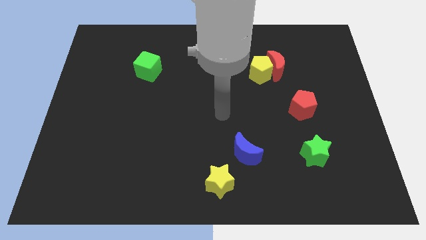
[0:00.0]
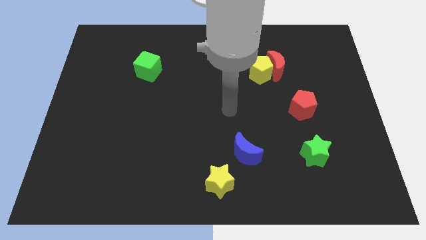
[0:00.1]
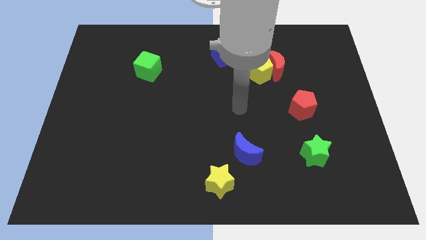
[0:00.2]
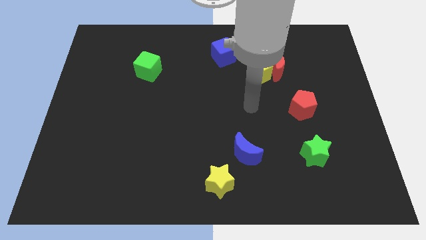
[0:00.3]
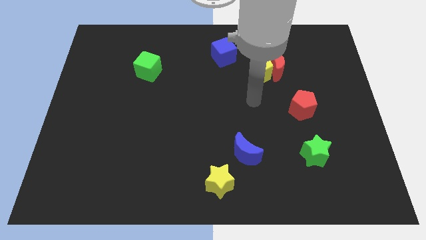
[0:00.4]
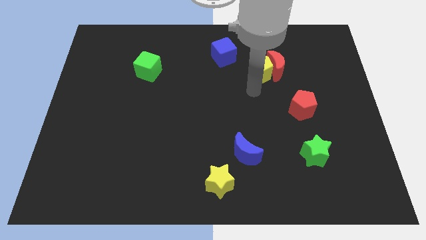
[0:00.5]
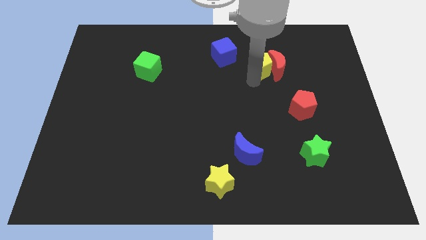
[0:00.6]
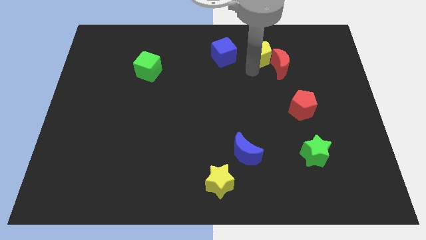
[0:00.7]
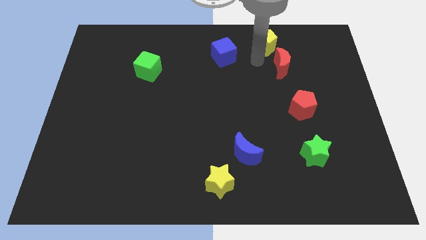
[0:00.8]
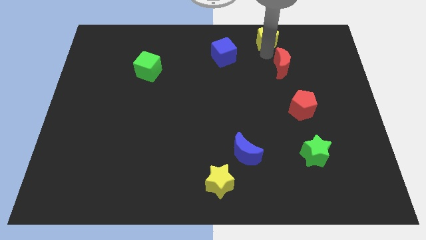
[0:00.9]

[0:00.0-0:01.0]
move the red moon away from the yellow pentagon

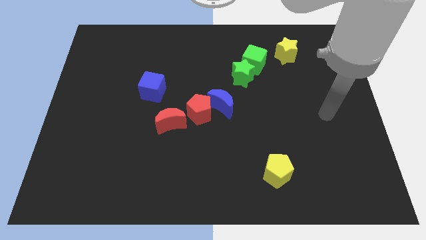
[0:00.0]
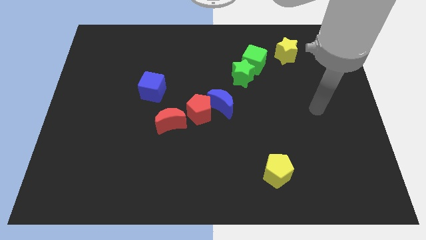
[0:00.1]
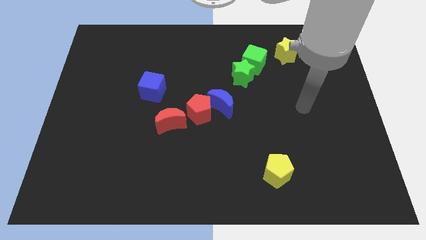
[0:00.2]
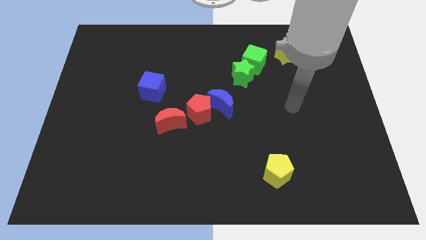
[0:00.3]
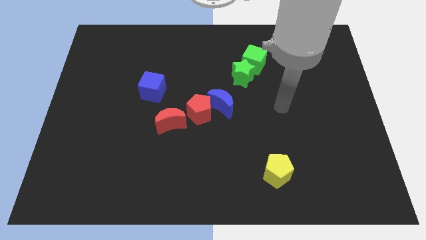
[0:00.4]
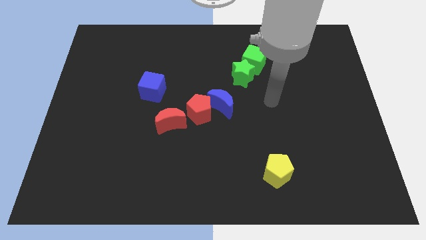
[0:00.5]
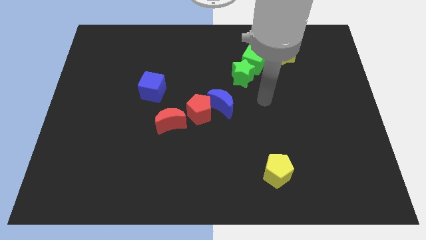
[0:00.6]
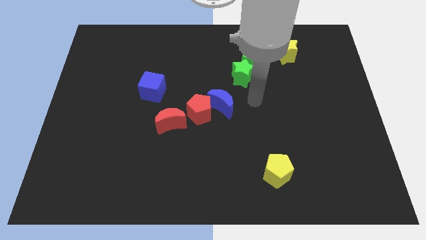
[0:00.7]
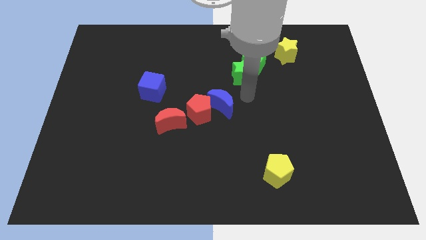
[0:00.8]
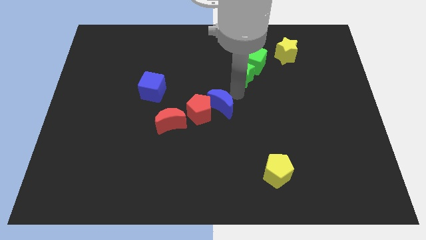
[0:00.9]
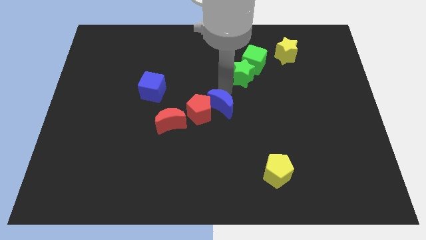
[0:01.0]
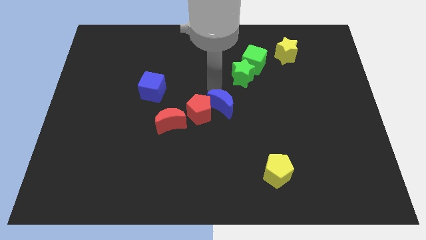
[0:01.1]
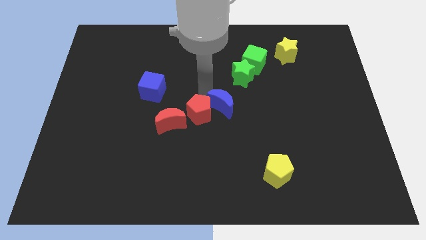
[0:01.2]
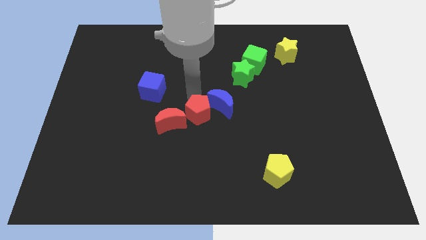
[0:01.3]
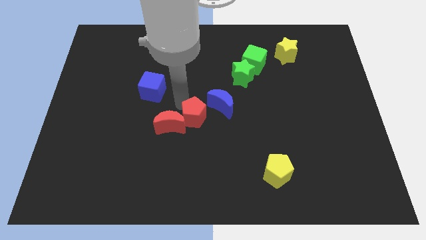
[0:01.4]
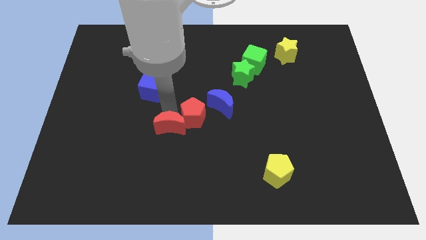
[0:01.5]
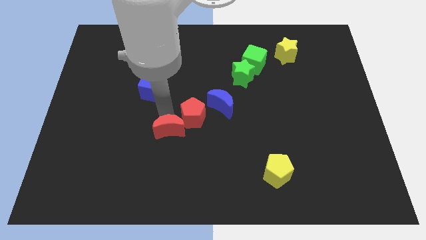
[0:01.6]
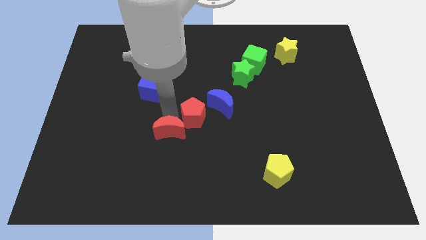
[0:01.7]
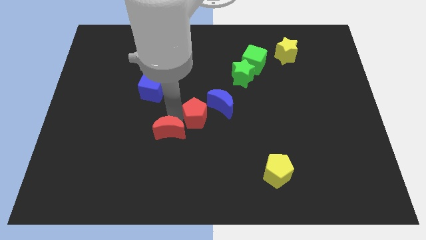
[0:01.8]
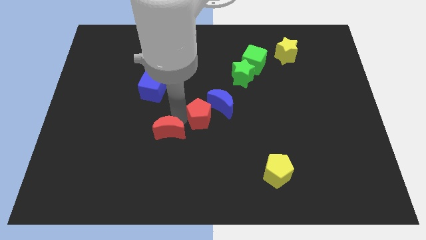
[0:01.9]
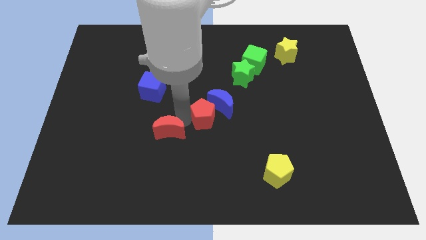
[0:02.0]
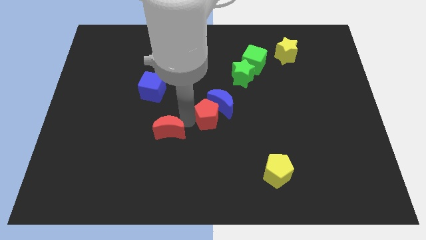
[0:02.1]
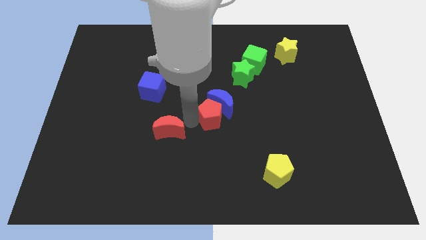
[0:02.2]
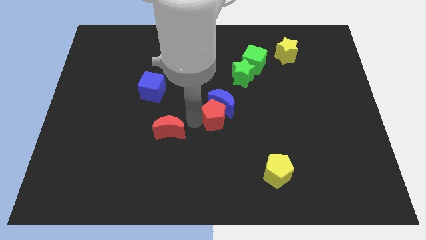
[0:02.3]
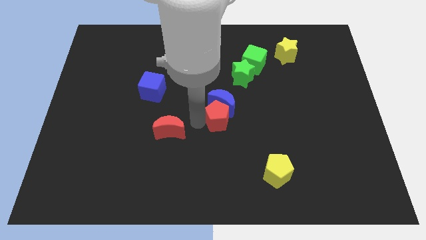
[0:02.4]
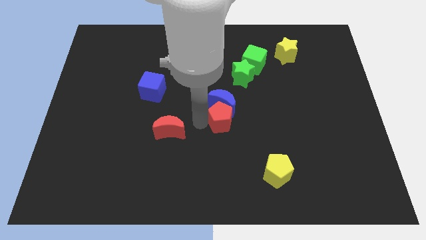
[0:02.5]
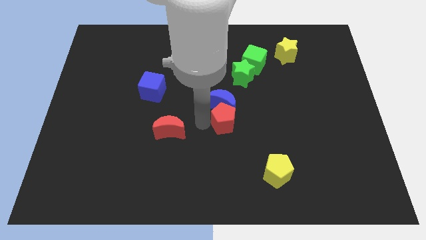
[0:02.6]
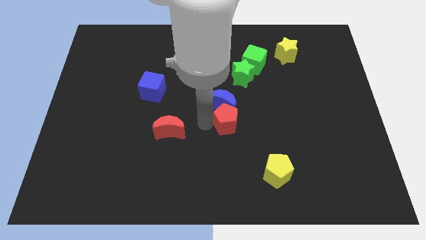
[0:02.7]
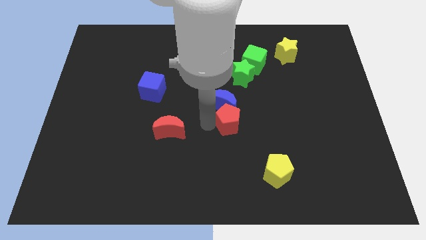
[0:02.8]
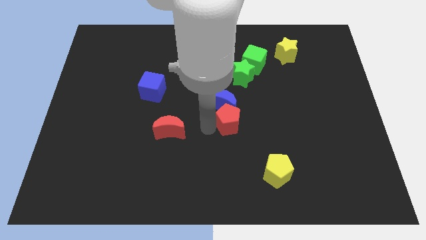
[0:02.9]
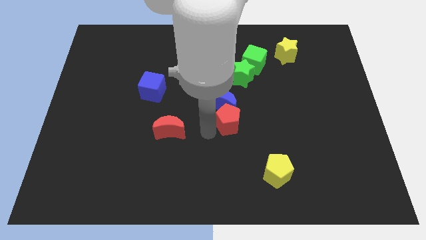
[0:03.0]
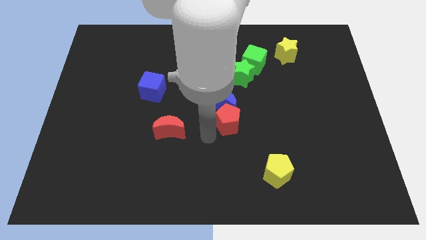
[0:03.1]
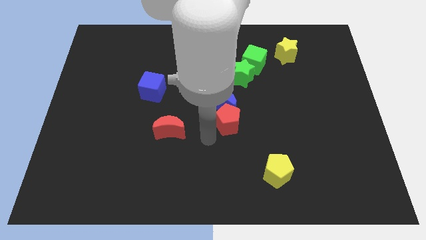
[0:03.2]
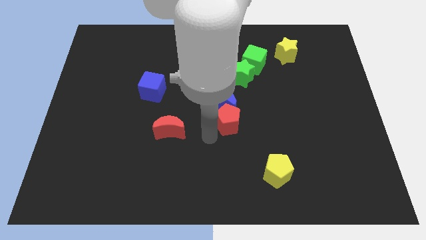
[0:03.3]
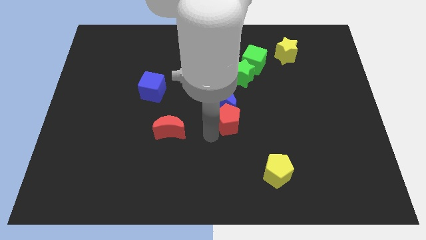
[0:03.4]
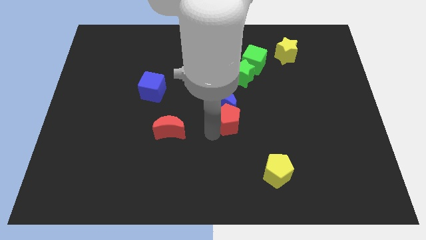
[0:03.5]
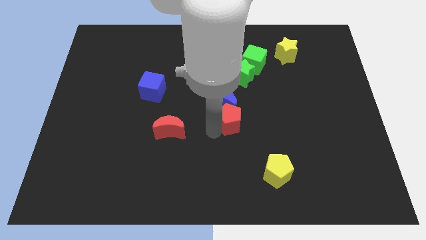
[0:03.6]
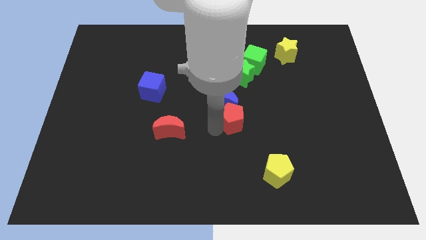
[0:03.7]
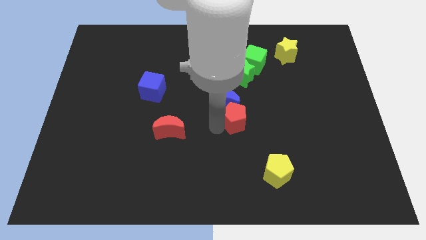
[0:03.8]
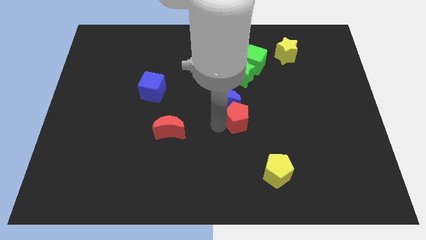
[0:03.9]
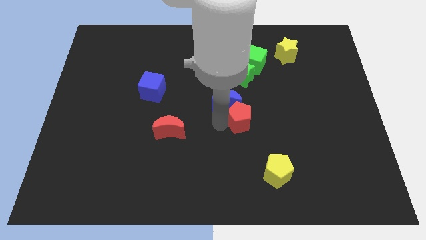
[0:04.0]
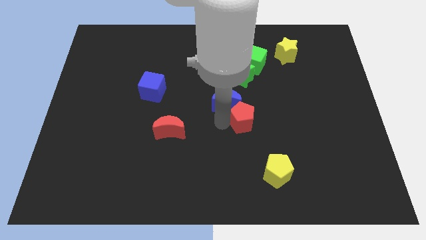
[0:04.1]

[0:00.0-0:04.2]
move the red pentagon away from the blue moon and red moon

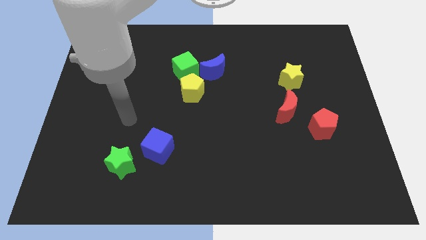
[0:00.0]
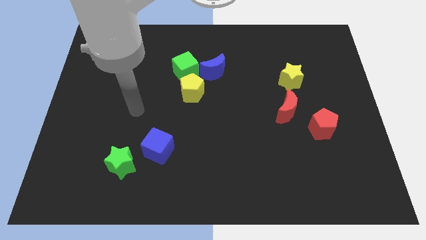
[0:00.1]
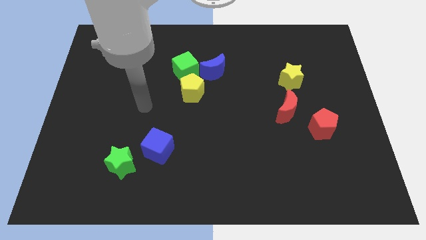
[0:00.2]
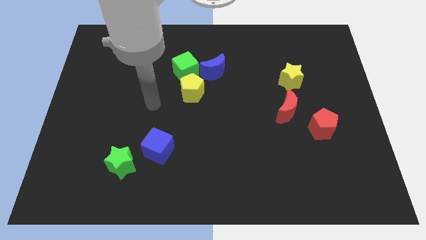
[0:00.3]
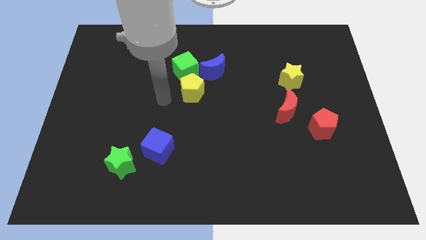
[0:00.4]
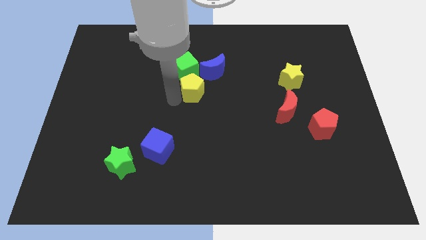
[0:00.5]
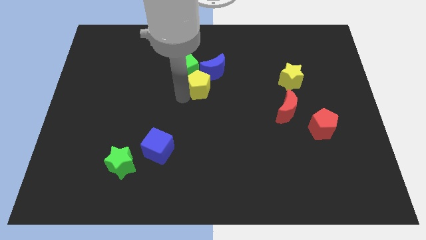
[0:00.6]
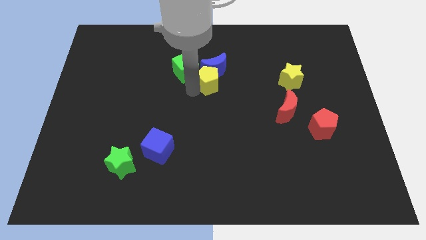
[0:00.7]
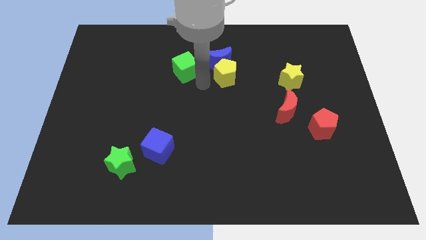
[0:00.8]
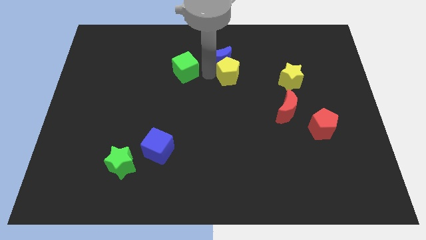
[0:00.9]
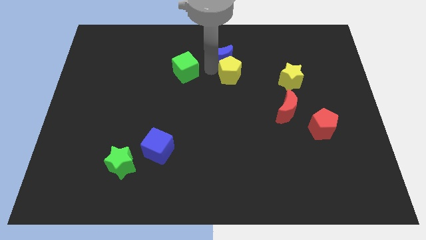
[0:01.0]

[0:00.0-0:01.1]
pull the green cube apart from the yellow pentagon and blue moon

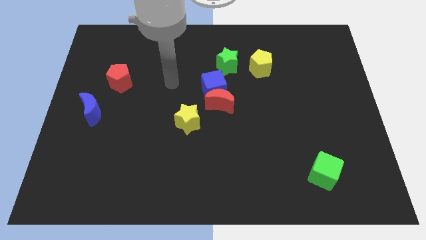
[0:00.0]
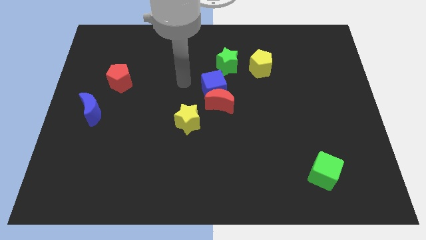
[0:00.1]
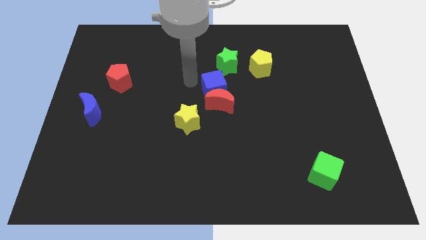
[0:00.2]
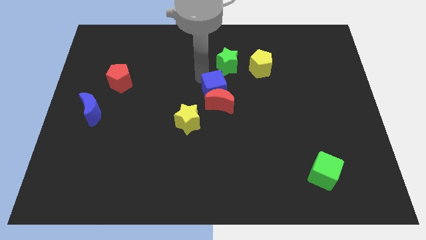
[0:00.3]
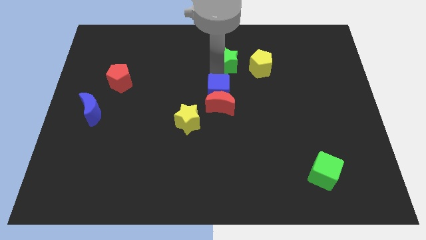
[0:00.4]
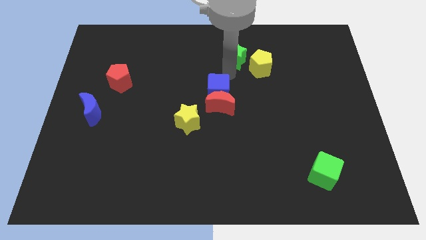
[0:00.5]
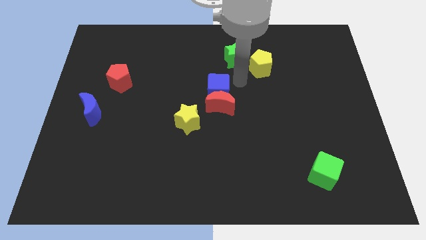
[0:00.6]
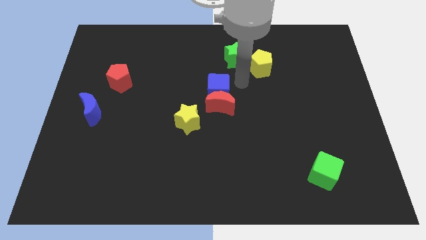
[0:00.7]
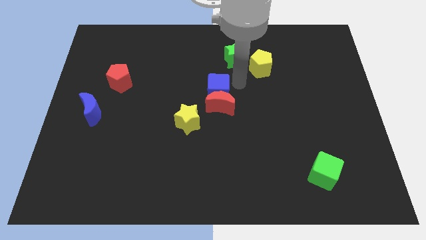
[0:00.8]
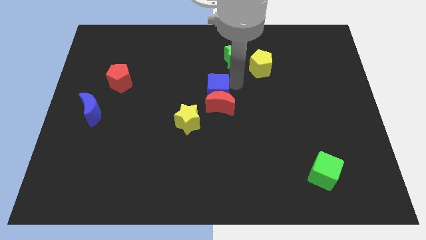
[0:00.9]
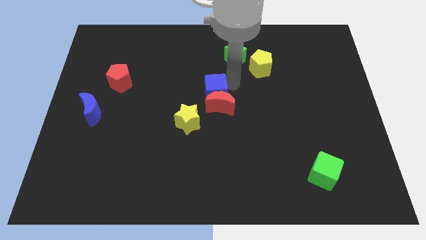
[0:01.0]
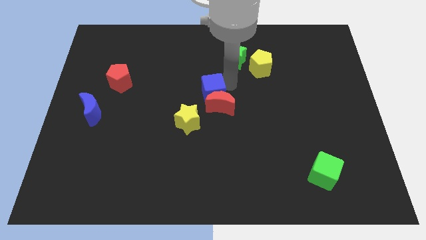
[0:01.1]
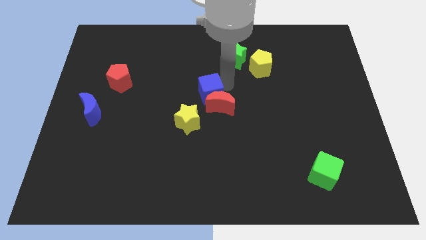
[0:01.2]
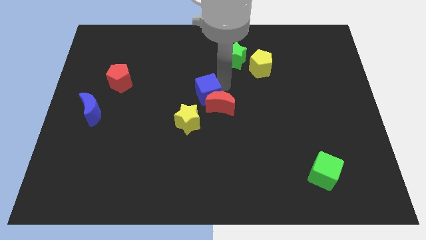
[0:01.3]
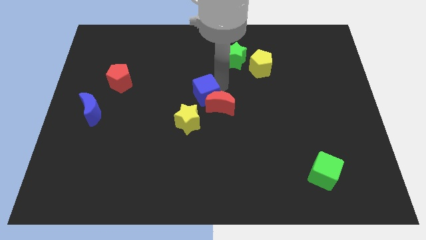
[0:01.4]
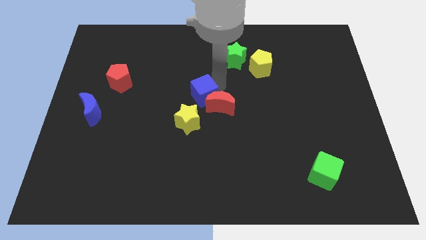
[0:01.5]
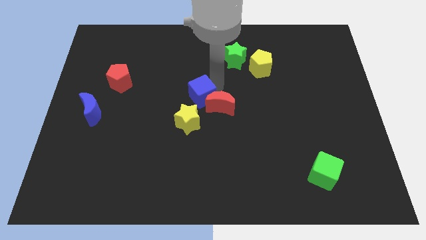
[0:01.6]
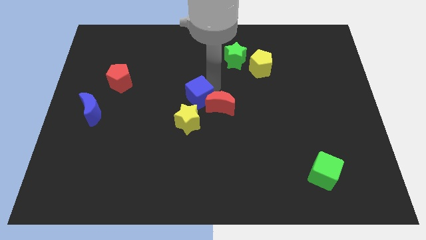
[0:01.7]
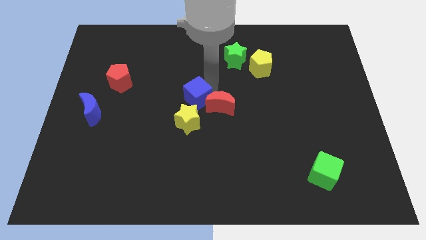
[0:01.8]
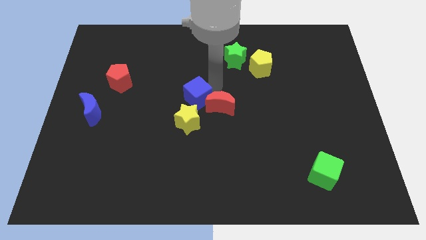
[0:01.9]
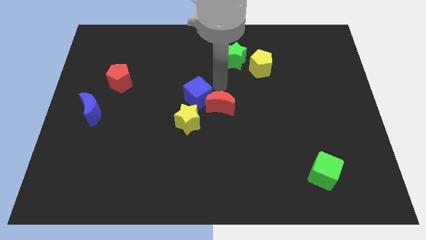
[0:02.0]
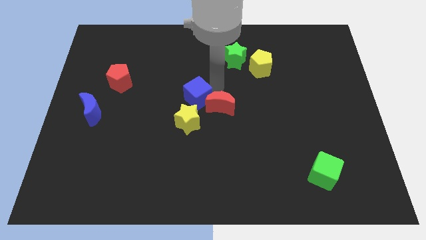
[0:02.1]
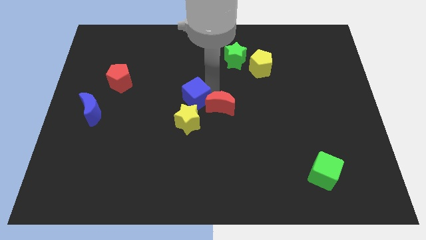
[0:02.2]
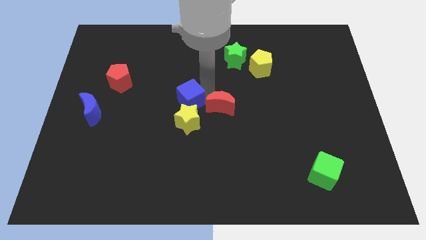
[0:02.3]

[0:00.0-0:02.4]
move the blue cube away from the red moon and green star

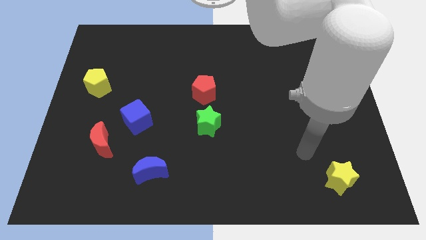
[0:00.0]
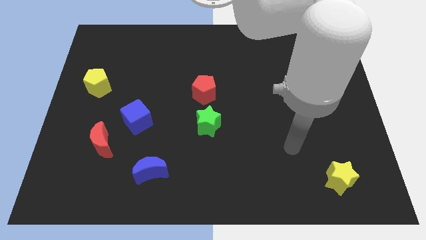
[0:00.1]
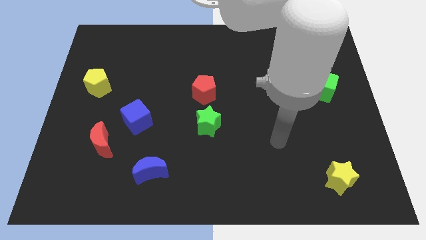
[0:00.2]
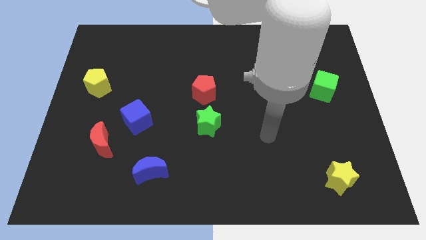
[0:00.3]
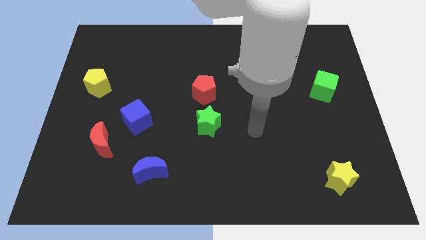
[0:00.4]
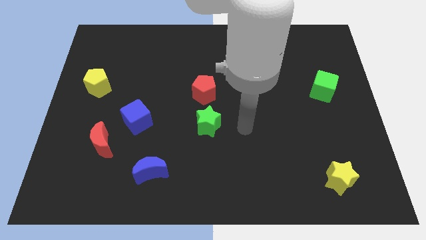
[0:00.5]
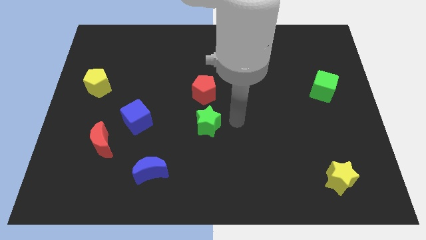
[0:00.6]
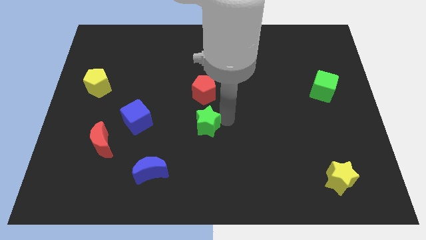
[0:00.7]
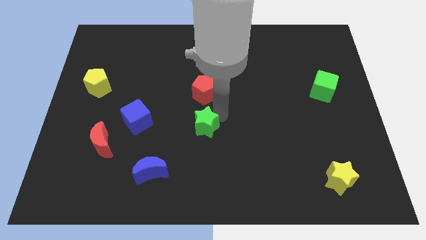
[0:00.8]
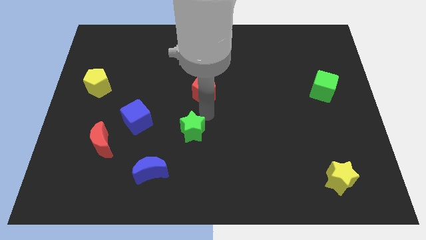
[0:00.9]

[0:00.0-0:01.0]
move the red pentagon away from the green star
